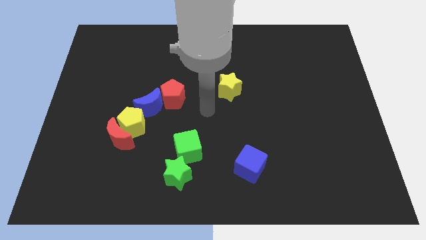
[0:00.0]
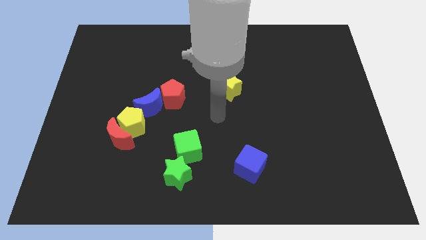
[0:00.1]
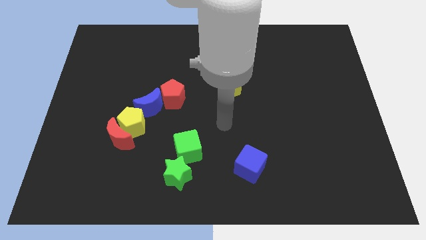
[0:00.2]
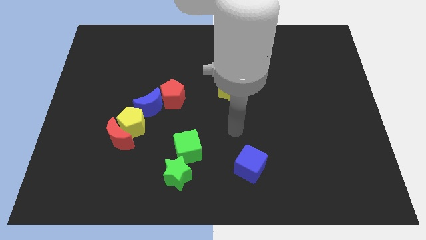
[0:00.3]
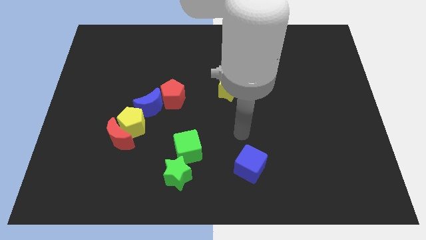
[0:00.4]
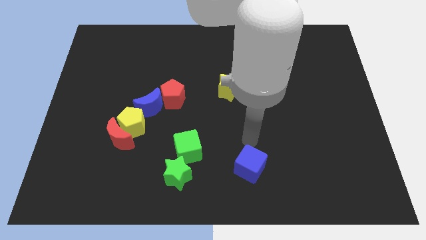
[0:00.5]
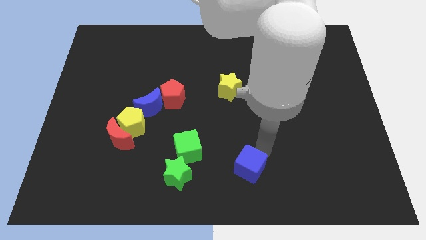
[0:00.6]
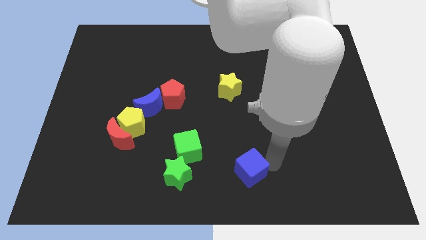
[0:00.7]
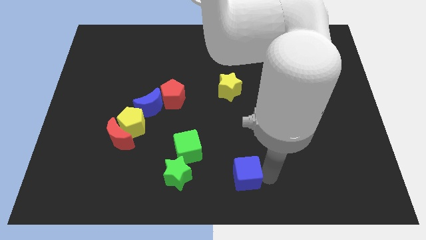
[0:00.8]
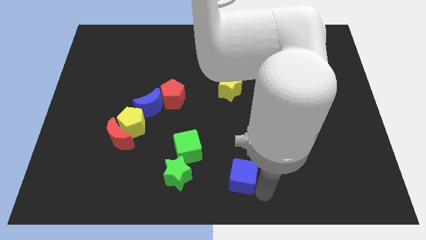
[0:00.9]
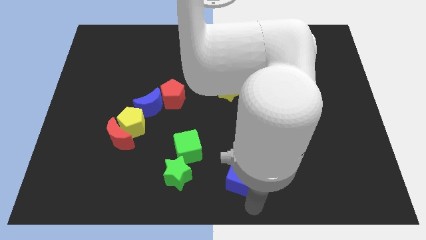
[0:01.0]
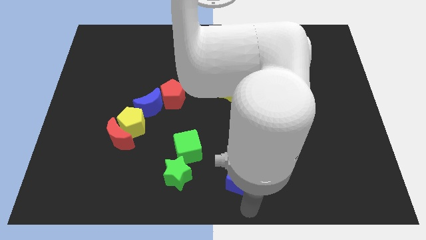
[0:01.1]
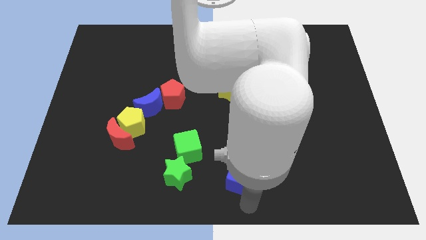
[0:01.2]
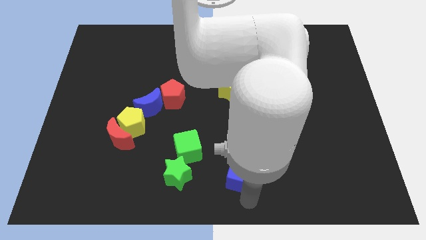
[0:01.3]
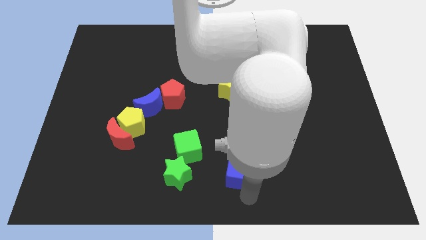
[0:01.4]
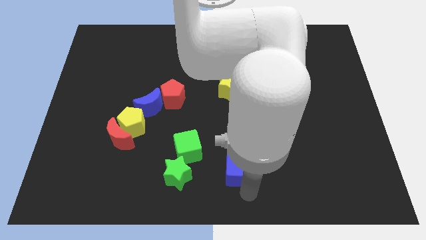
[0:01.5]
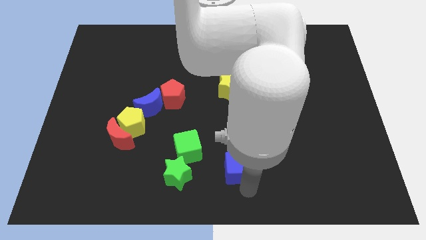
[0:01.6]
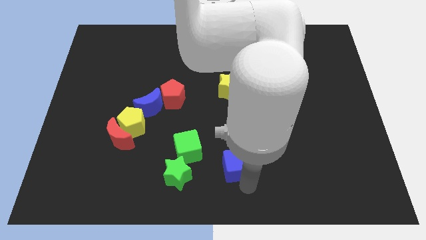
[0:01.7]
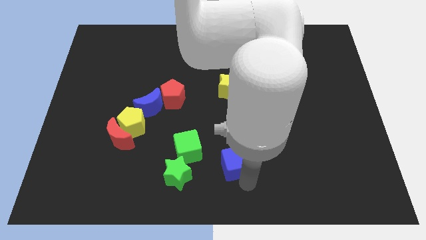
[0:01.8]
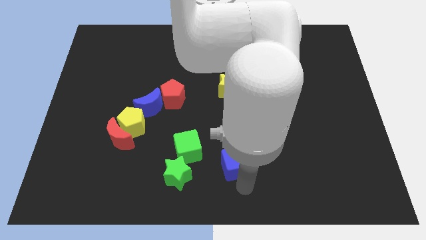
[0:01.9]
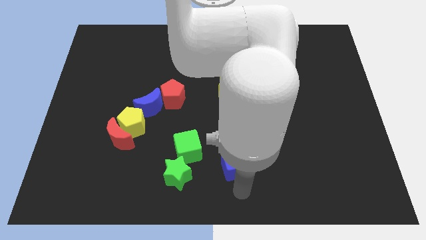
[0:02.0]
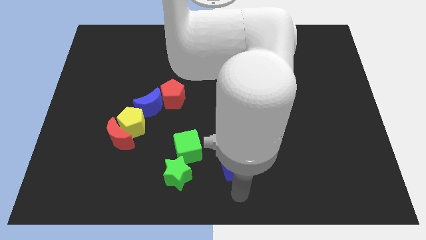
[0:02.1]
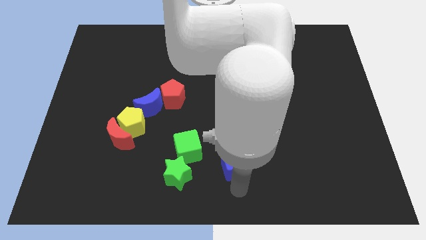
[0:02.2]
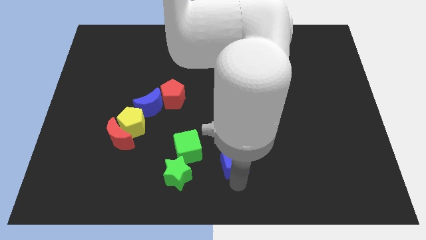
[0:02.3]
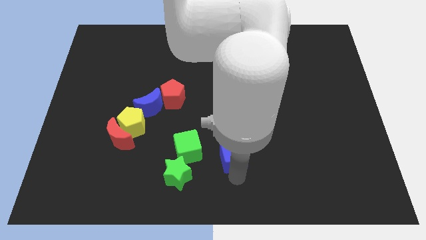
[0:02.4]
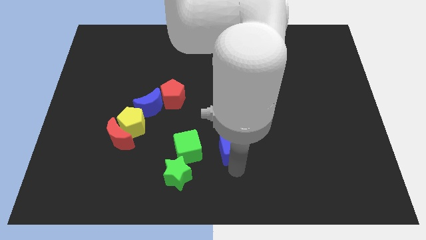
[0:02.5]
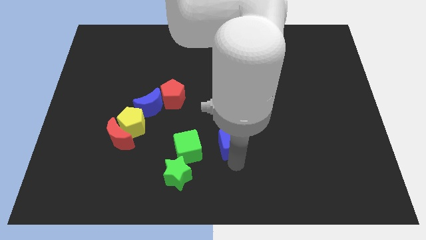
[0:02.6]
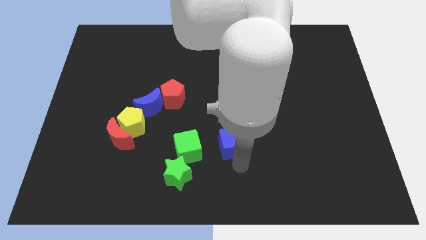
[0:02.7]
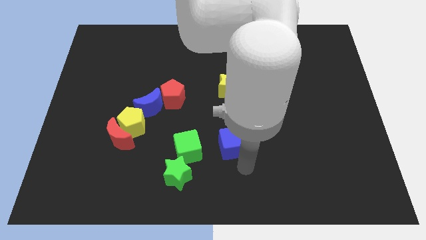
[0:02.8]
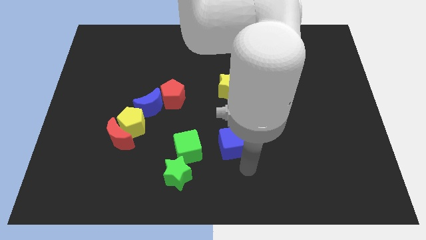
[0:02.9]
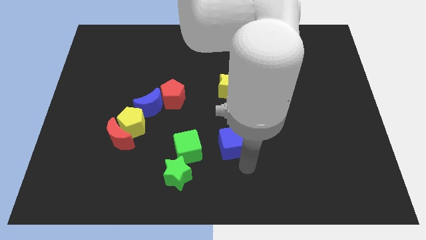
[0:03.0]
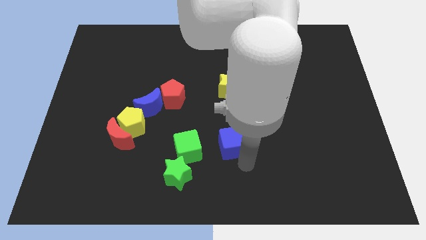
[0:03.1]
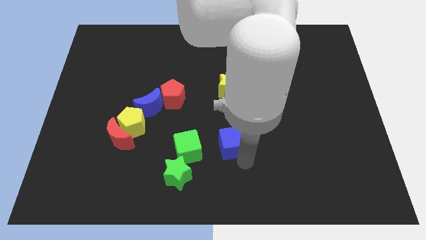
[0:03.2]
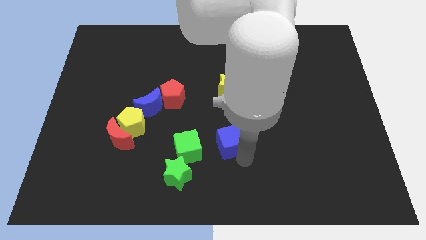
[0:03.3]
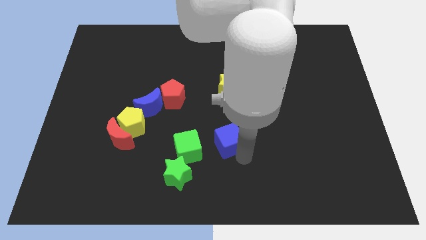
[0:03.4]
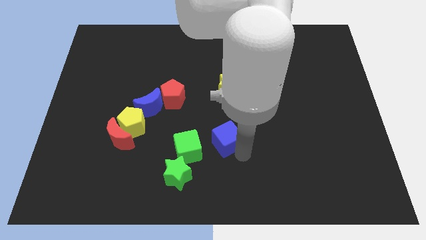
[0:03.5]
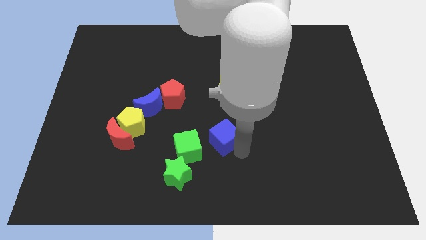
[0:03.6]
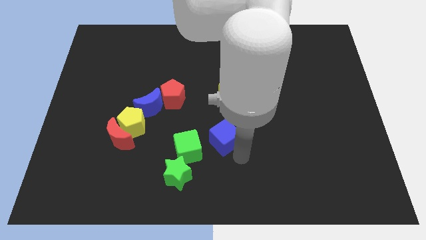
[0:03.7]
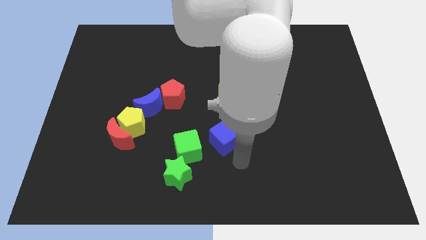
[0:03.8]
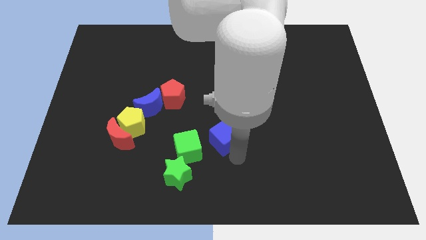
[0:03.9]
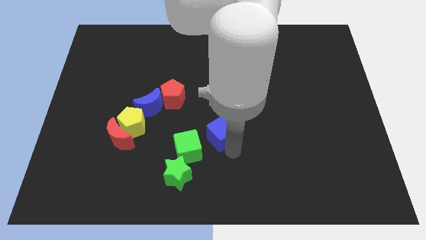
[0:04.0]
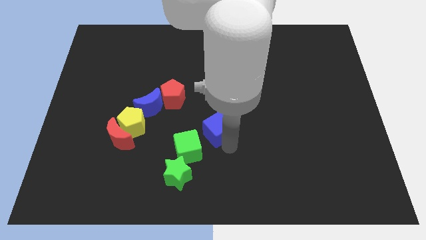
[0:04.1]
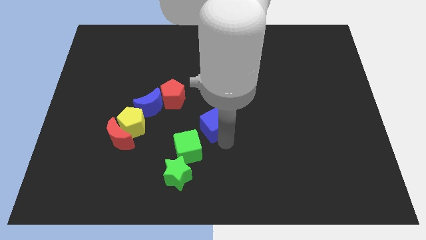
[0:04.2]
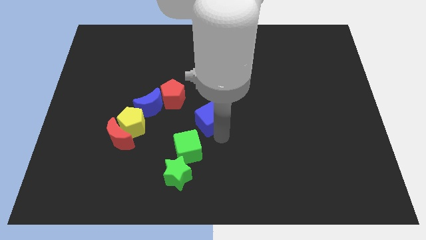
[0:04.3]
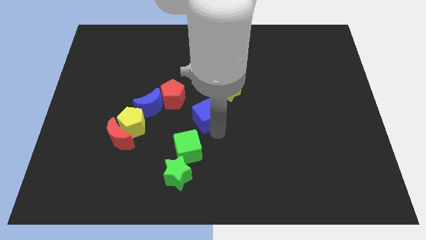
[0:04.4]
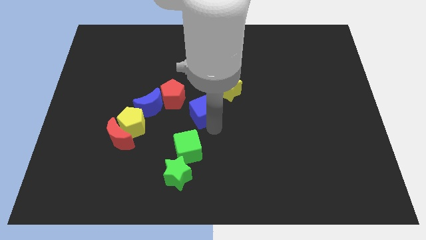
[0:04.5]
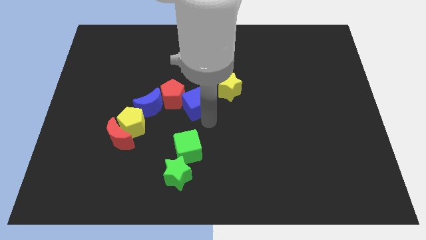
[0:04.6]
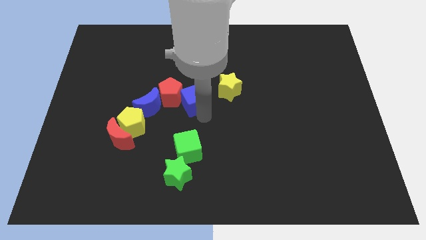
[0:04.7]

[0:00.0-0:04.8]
push the blue cube just left of the yellow star

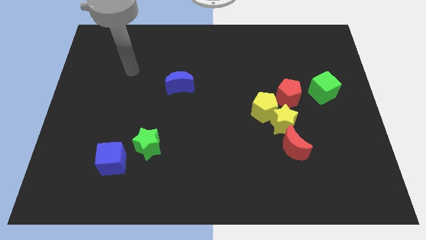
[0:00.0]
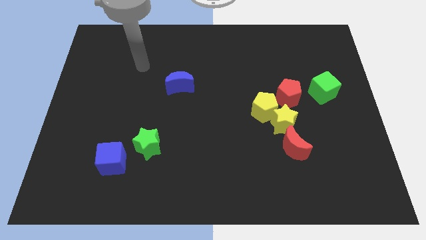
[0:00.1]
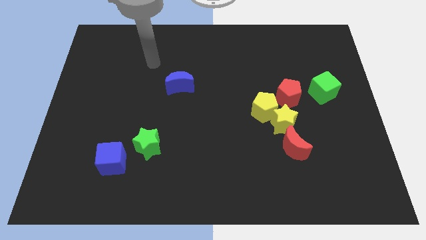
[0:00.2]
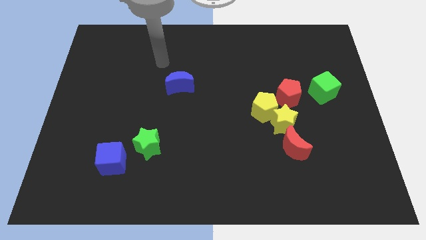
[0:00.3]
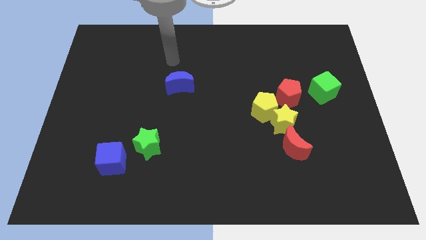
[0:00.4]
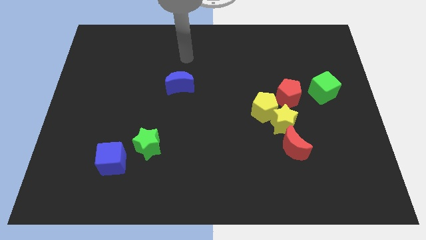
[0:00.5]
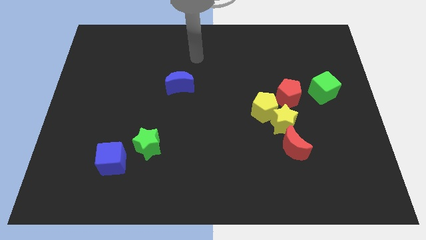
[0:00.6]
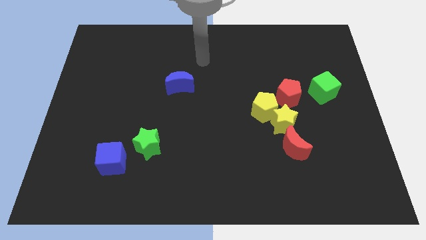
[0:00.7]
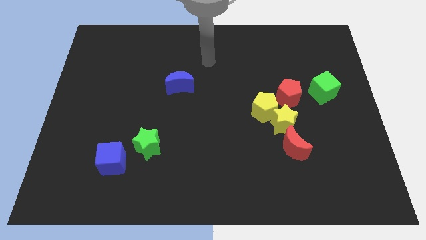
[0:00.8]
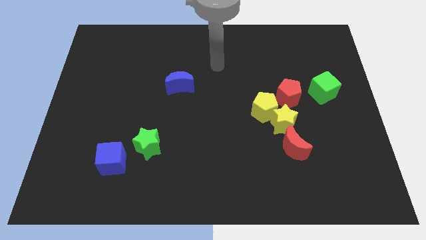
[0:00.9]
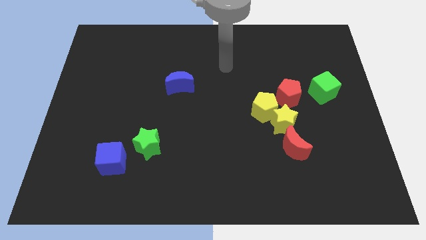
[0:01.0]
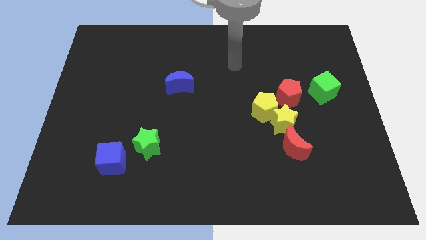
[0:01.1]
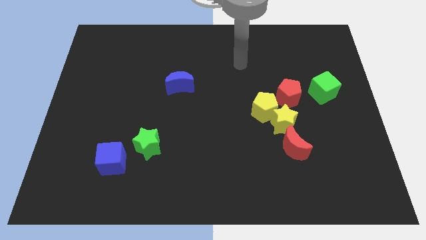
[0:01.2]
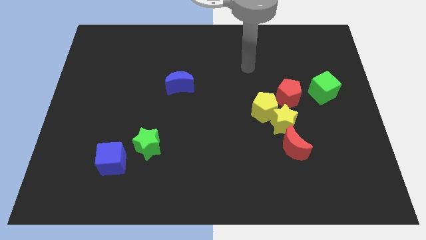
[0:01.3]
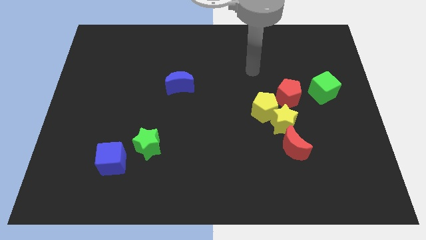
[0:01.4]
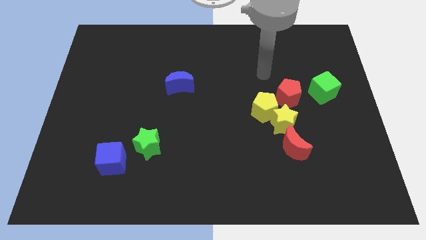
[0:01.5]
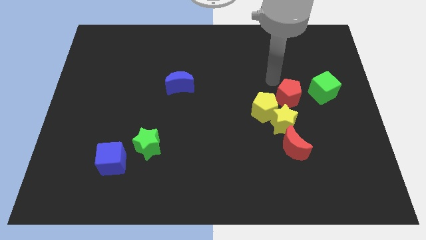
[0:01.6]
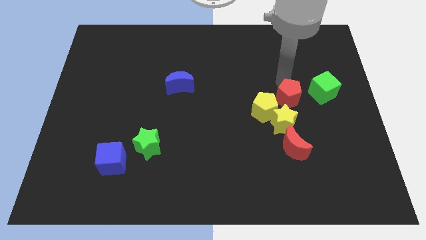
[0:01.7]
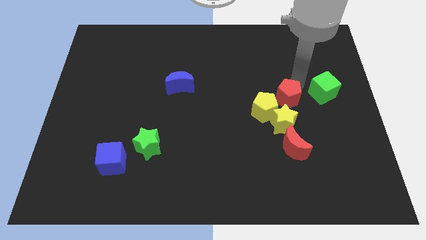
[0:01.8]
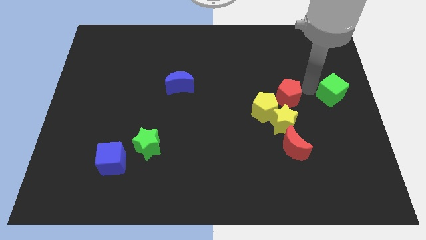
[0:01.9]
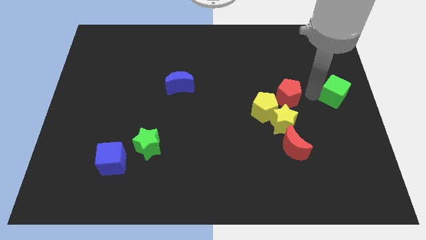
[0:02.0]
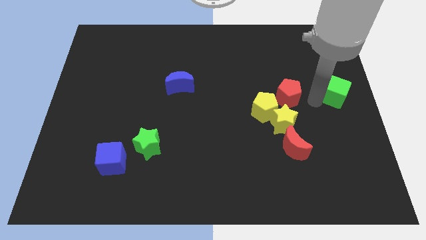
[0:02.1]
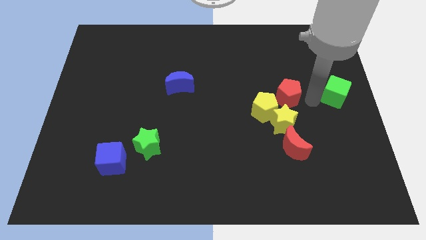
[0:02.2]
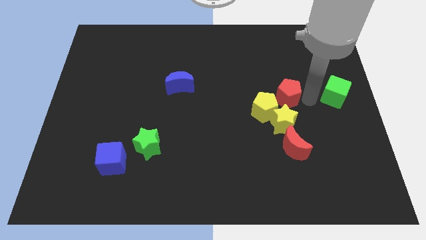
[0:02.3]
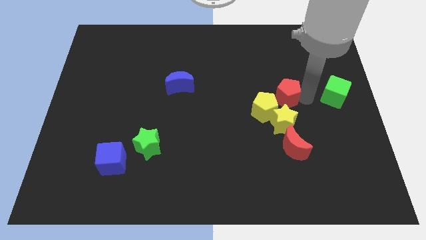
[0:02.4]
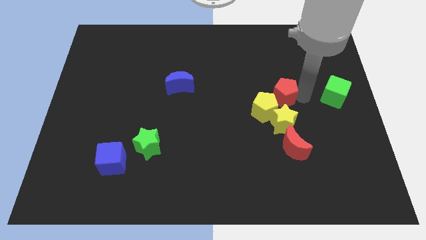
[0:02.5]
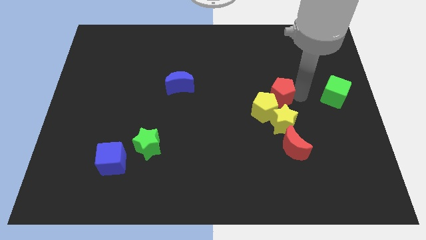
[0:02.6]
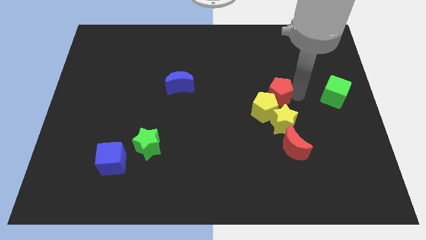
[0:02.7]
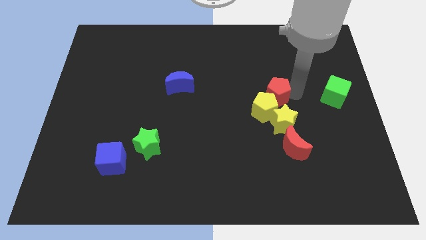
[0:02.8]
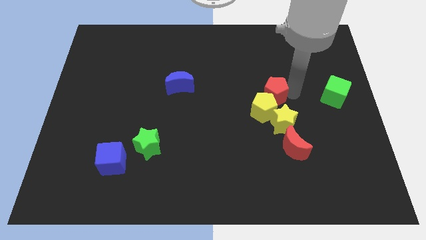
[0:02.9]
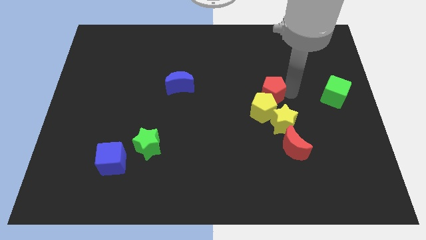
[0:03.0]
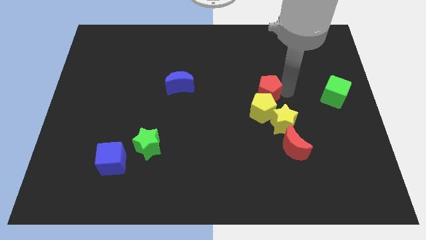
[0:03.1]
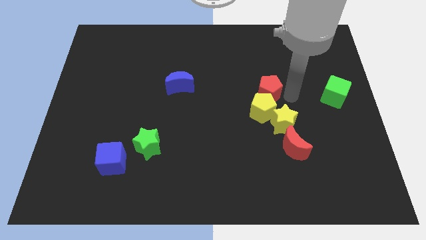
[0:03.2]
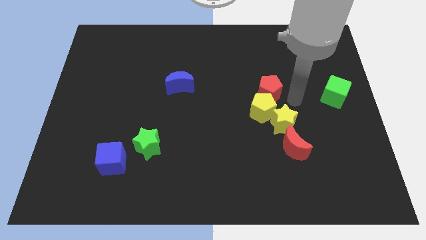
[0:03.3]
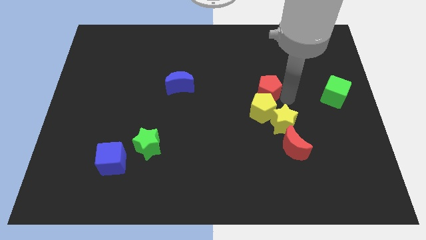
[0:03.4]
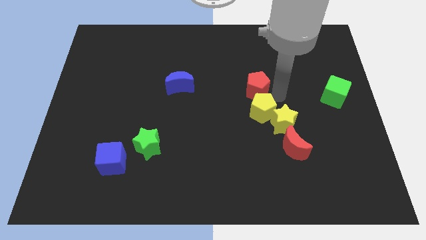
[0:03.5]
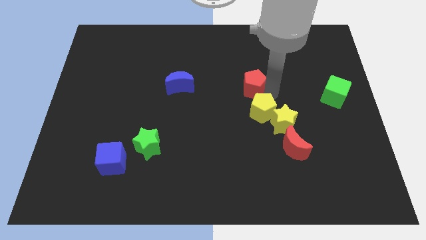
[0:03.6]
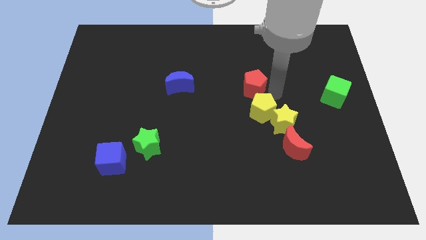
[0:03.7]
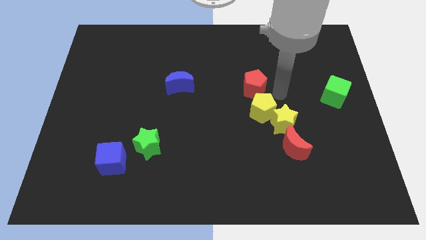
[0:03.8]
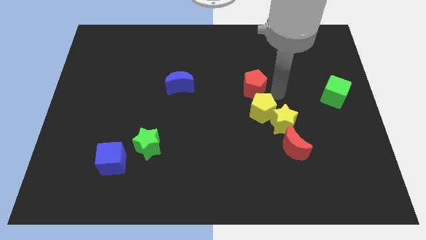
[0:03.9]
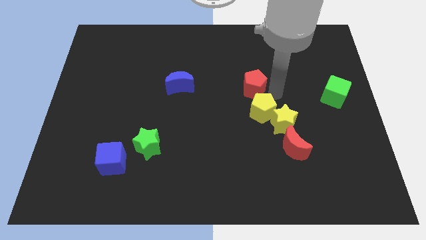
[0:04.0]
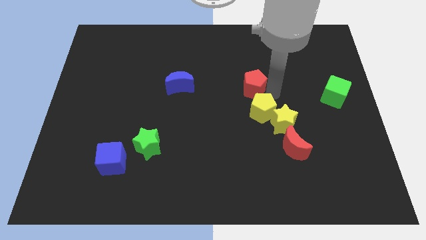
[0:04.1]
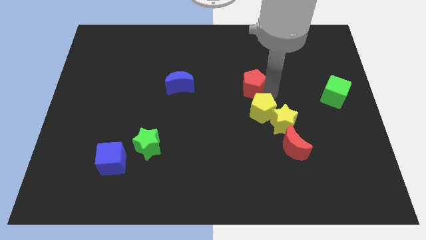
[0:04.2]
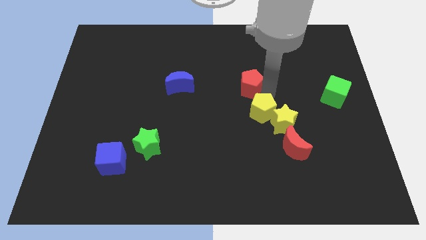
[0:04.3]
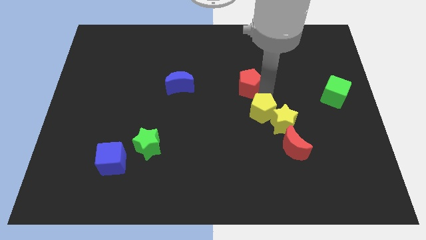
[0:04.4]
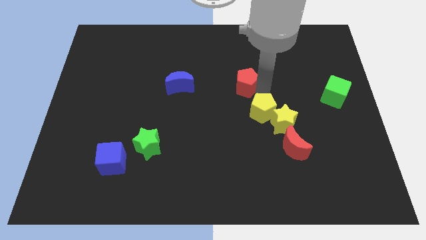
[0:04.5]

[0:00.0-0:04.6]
put the red pentagon right of the blue moon
